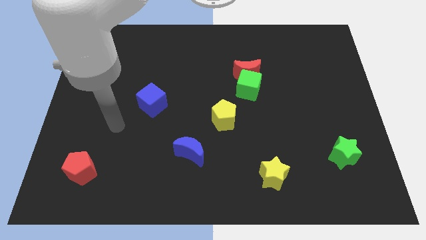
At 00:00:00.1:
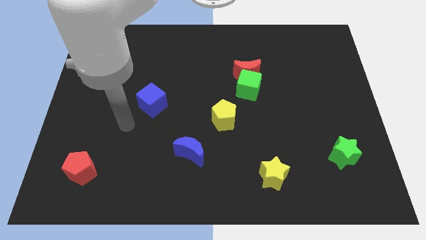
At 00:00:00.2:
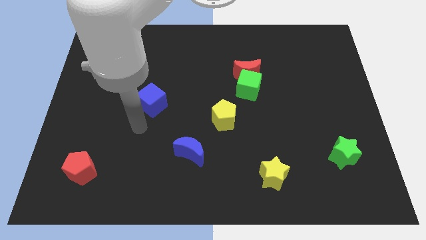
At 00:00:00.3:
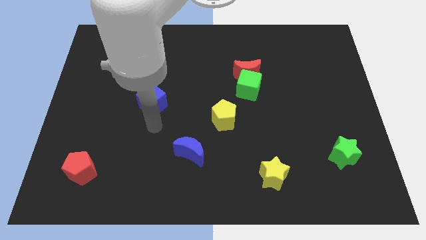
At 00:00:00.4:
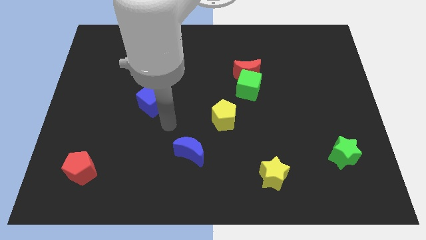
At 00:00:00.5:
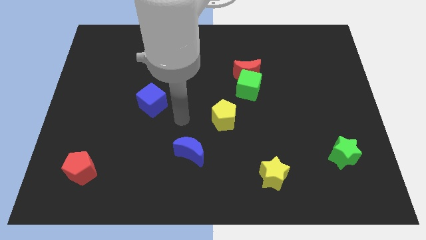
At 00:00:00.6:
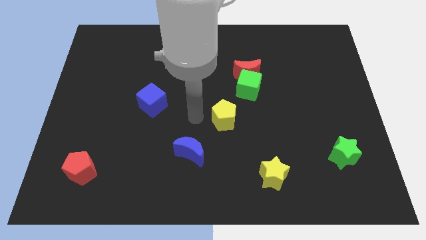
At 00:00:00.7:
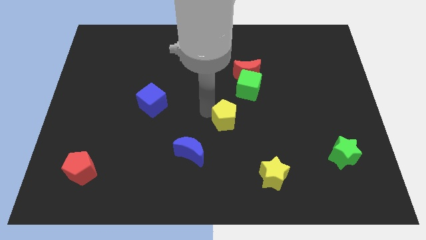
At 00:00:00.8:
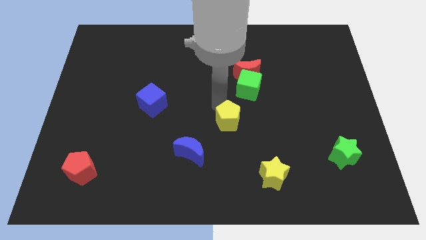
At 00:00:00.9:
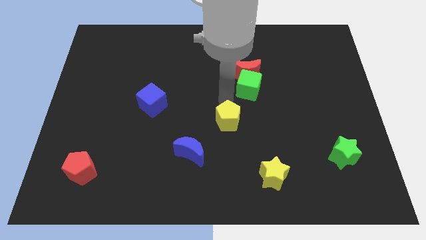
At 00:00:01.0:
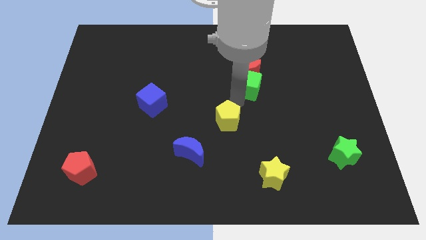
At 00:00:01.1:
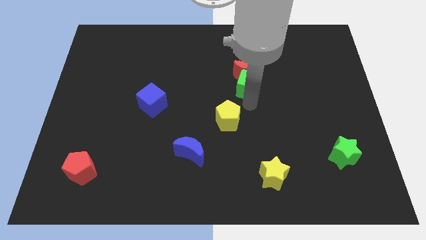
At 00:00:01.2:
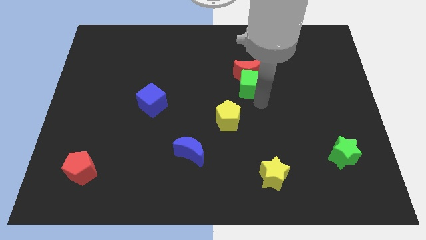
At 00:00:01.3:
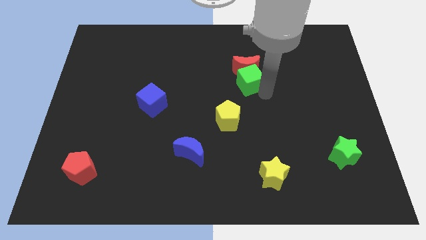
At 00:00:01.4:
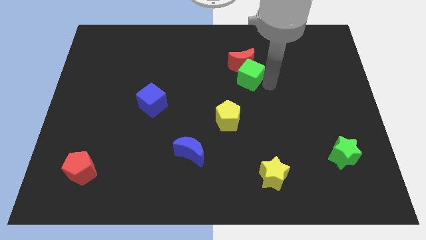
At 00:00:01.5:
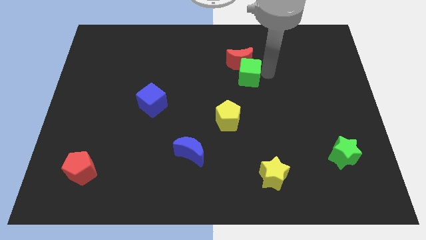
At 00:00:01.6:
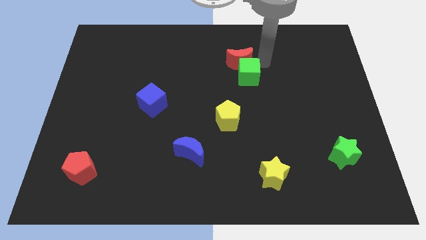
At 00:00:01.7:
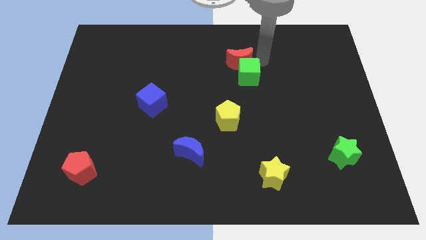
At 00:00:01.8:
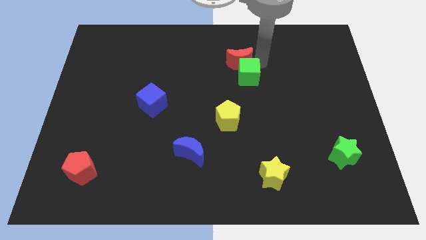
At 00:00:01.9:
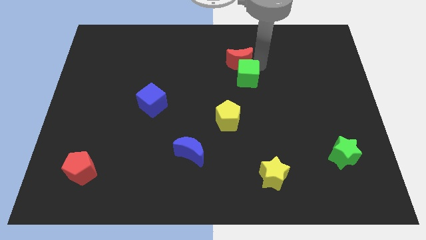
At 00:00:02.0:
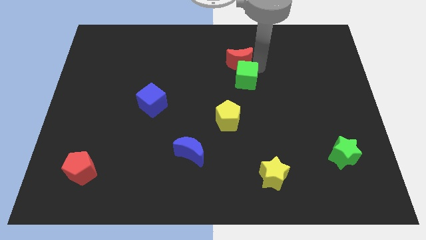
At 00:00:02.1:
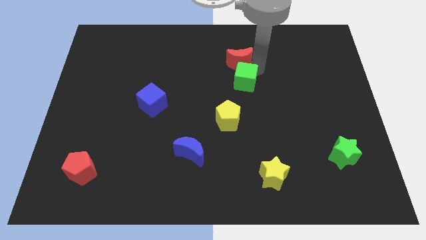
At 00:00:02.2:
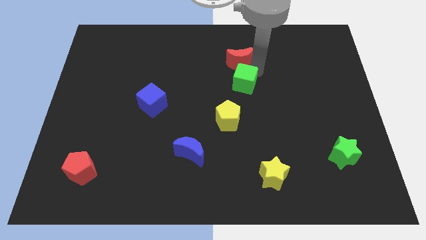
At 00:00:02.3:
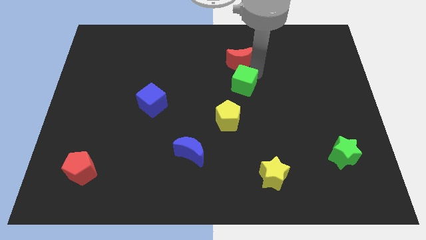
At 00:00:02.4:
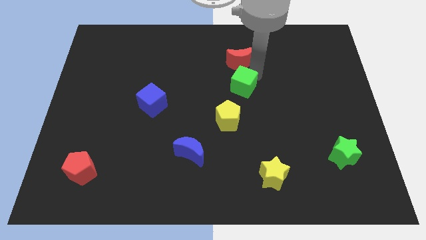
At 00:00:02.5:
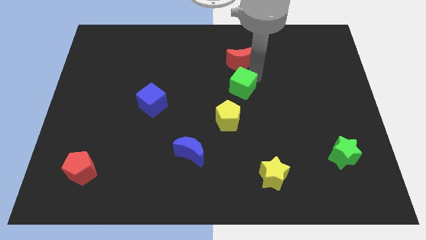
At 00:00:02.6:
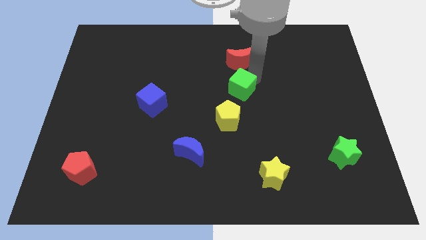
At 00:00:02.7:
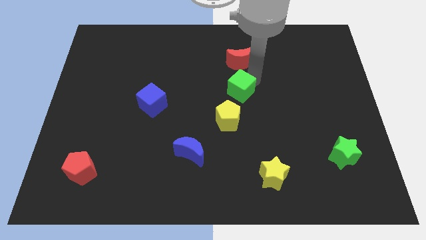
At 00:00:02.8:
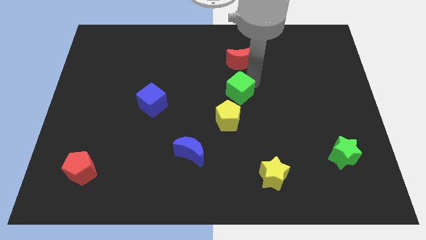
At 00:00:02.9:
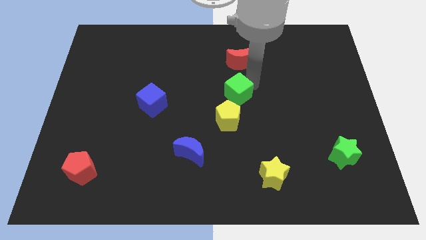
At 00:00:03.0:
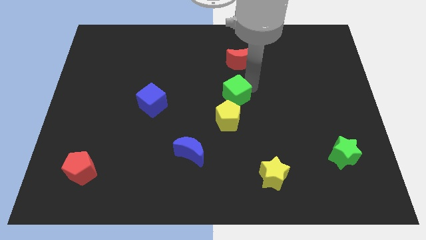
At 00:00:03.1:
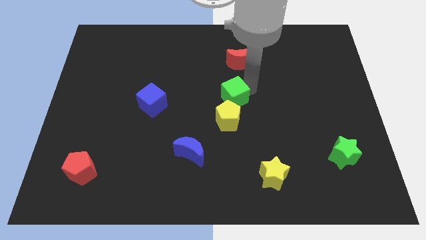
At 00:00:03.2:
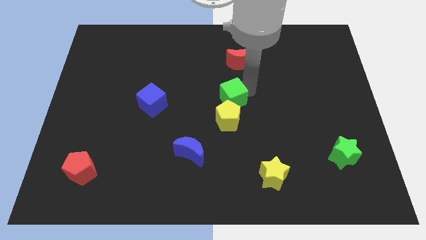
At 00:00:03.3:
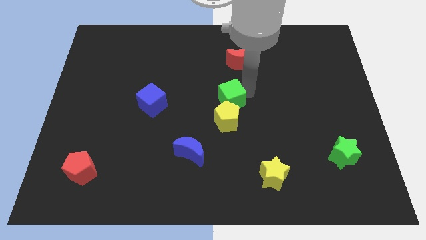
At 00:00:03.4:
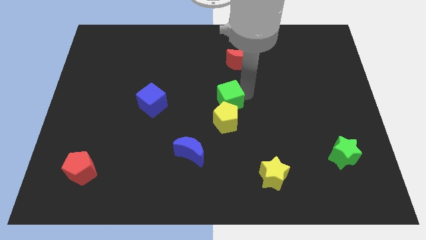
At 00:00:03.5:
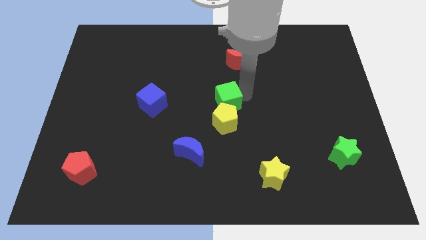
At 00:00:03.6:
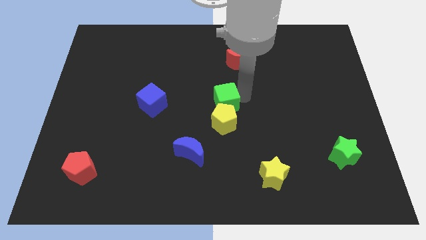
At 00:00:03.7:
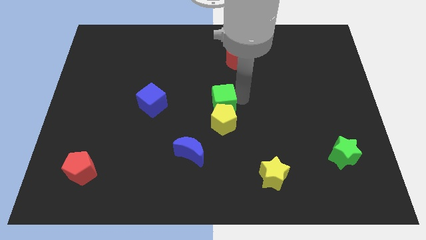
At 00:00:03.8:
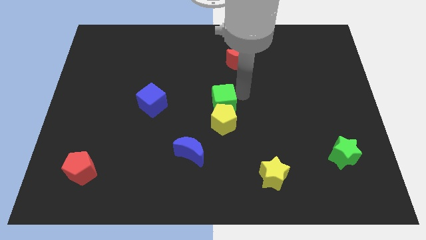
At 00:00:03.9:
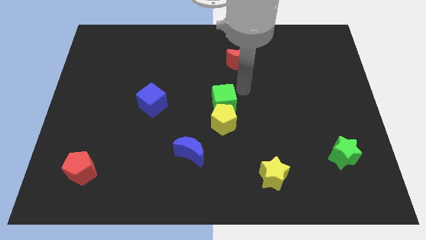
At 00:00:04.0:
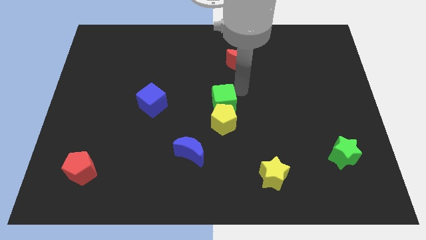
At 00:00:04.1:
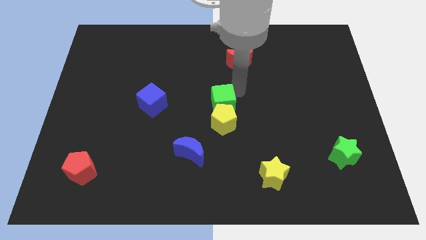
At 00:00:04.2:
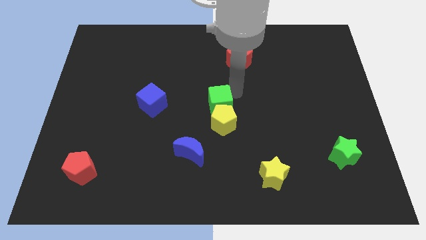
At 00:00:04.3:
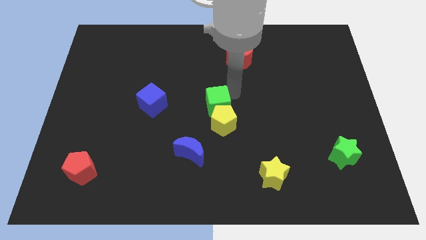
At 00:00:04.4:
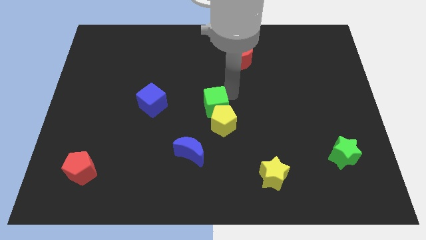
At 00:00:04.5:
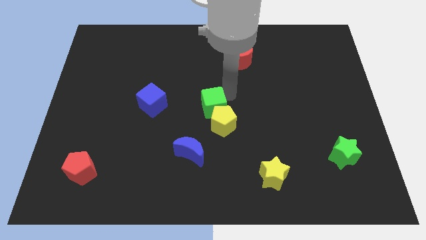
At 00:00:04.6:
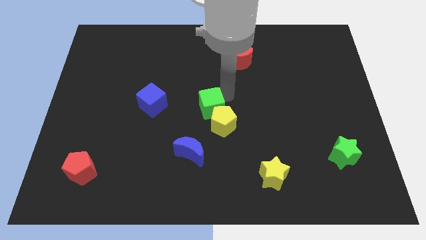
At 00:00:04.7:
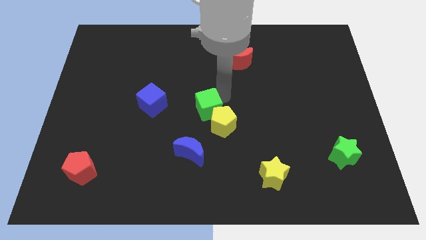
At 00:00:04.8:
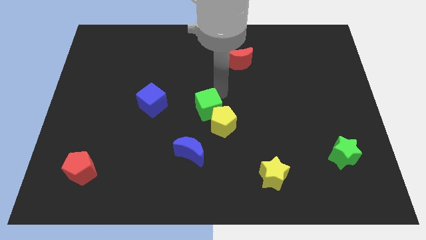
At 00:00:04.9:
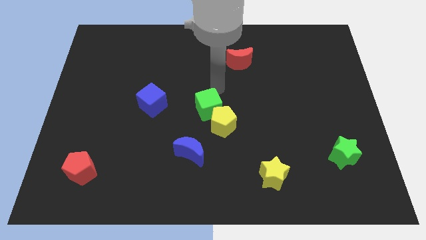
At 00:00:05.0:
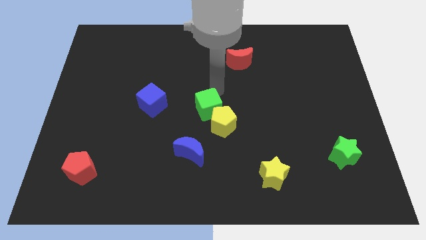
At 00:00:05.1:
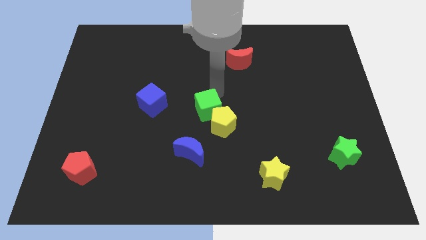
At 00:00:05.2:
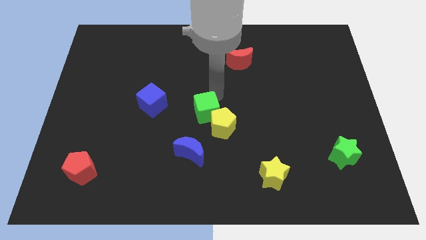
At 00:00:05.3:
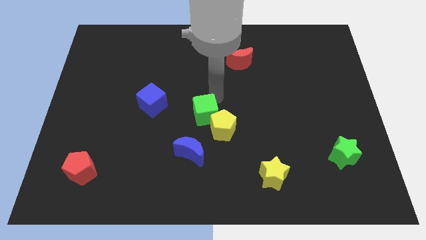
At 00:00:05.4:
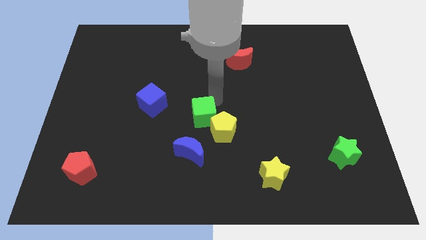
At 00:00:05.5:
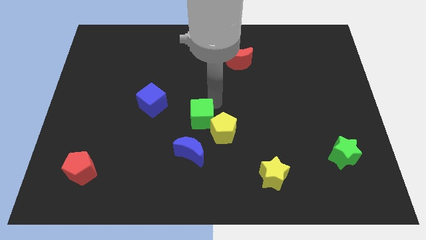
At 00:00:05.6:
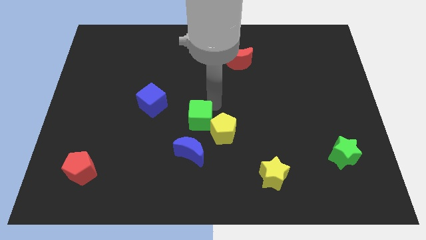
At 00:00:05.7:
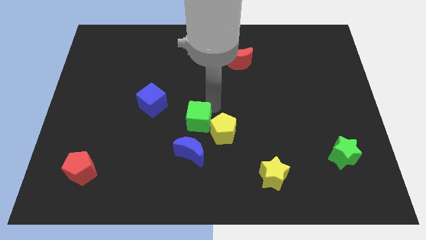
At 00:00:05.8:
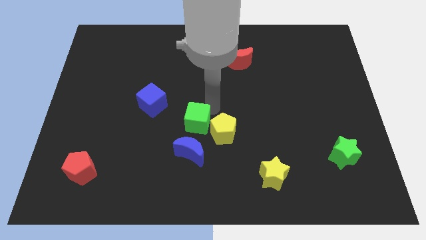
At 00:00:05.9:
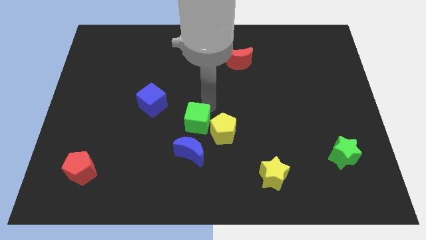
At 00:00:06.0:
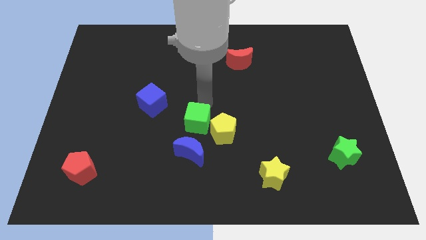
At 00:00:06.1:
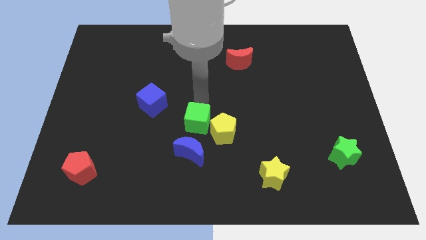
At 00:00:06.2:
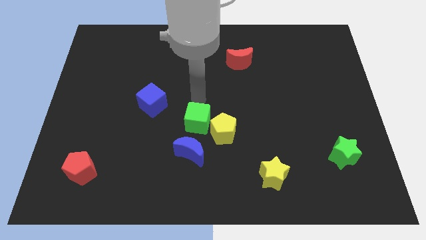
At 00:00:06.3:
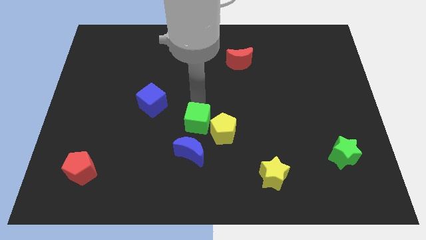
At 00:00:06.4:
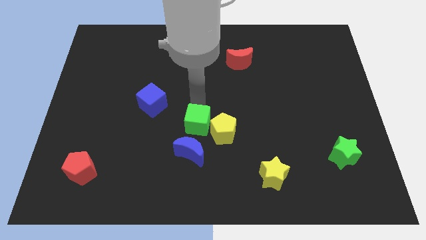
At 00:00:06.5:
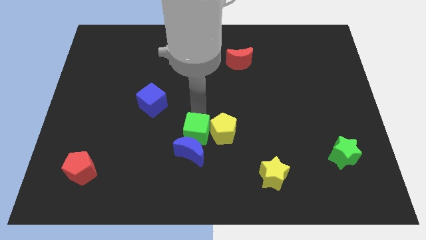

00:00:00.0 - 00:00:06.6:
put the green cube to the blue moon

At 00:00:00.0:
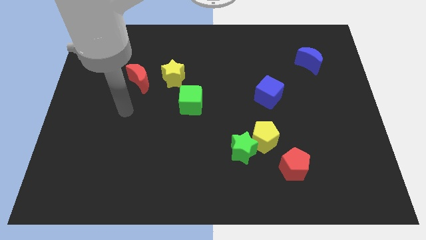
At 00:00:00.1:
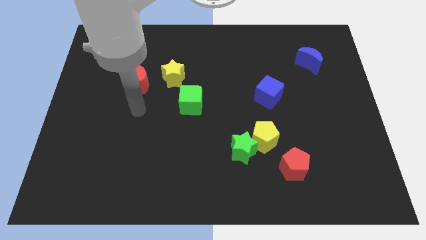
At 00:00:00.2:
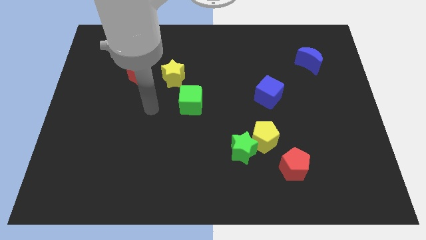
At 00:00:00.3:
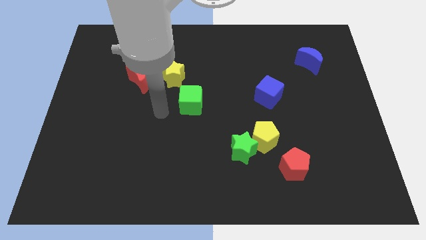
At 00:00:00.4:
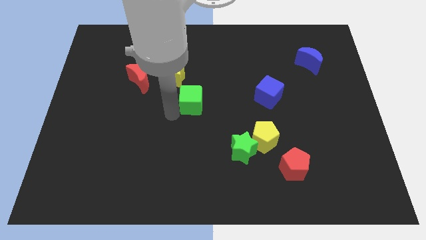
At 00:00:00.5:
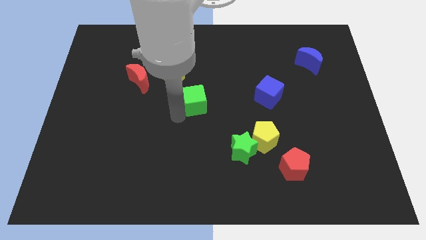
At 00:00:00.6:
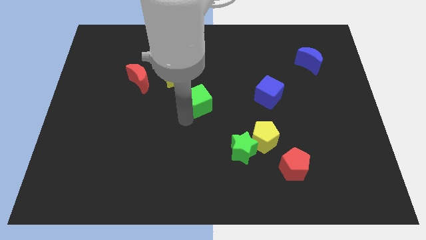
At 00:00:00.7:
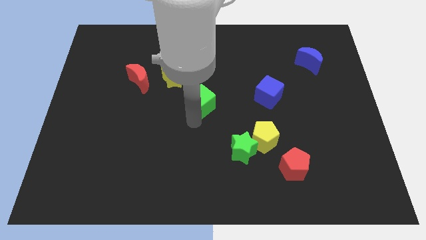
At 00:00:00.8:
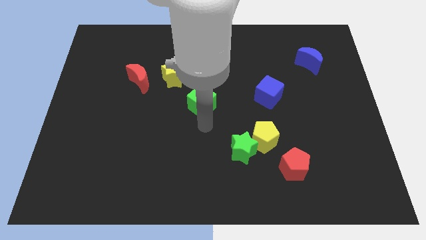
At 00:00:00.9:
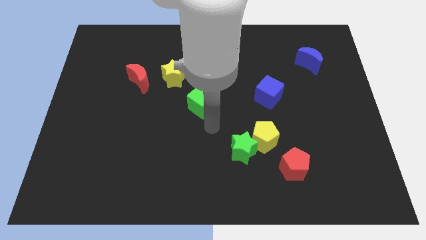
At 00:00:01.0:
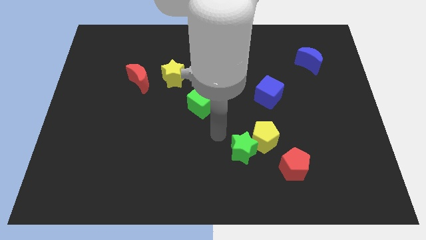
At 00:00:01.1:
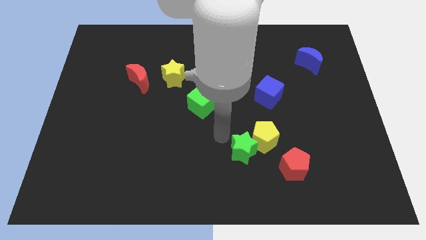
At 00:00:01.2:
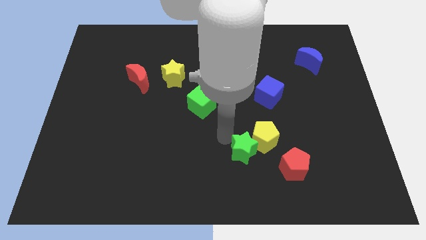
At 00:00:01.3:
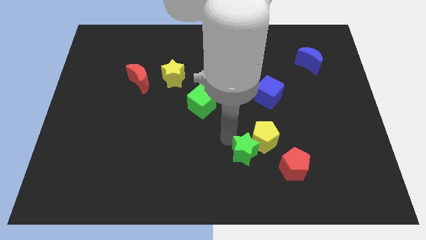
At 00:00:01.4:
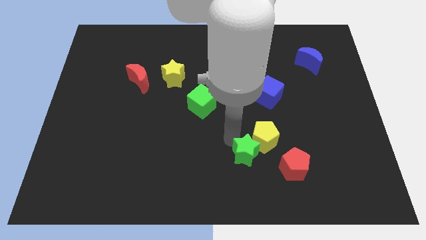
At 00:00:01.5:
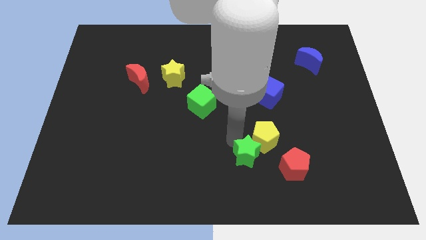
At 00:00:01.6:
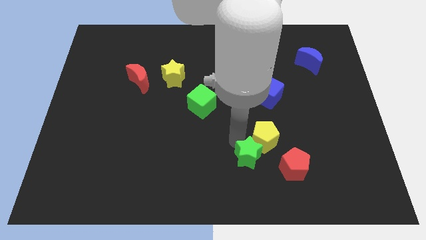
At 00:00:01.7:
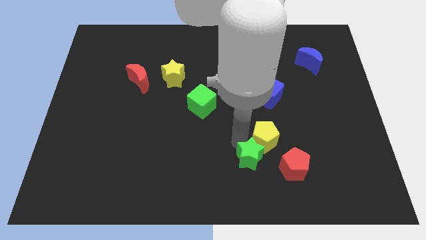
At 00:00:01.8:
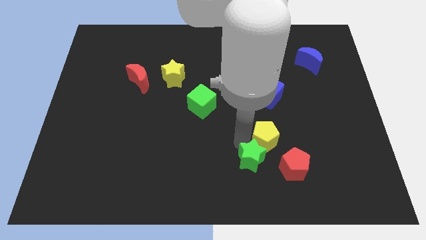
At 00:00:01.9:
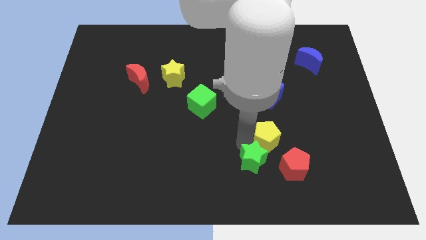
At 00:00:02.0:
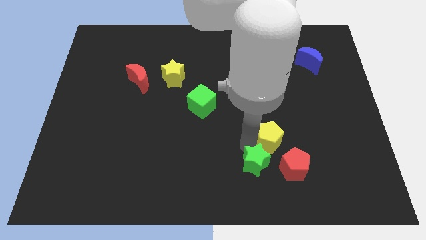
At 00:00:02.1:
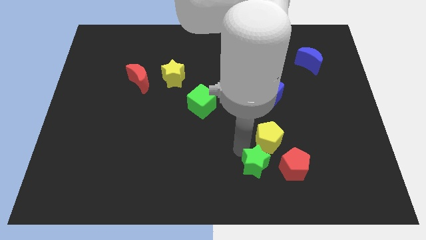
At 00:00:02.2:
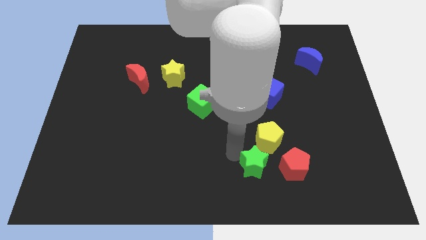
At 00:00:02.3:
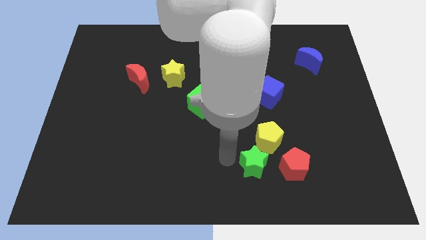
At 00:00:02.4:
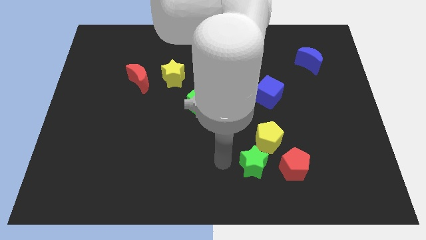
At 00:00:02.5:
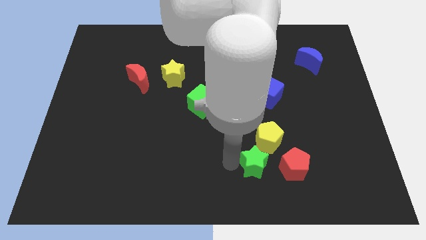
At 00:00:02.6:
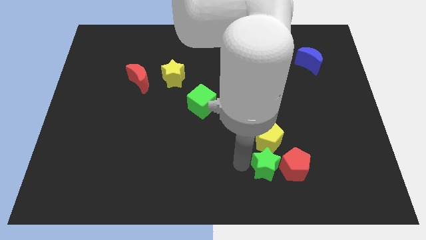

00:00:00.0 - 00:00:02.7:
move the green star towards the red pentagon
